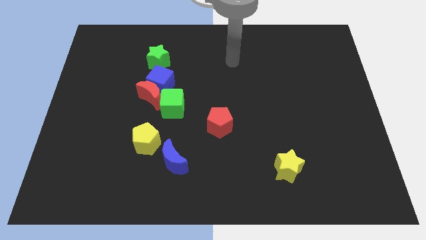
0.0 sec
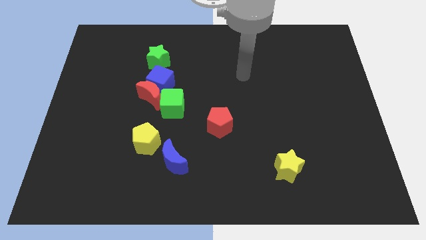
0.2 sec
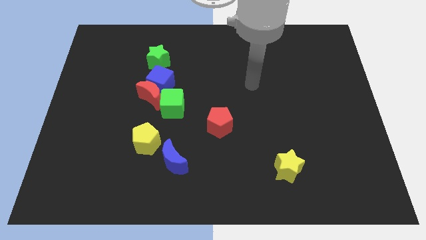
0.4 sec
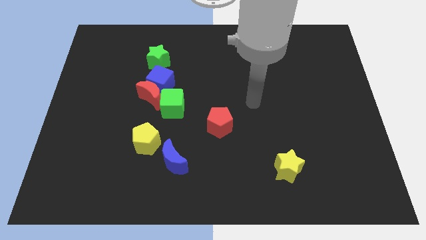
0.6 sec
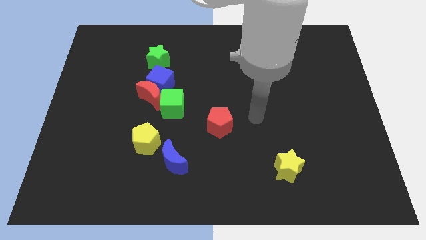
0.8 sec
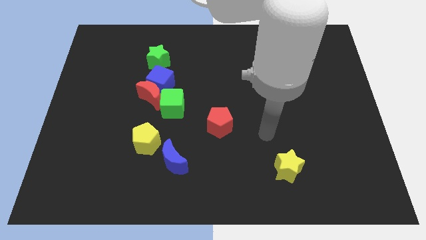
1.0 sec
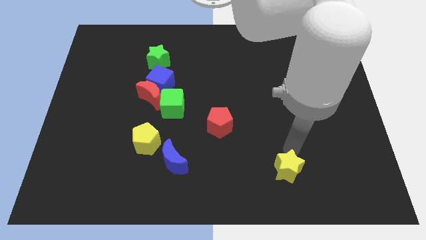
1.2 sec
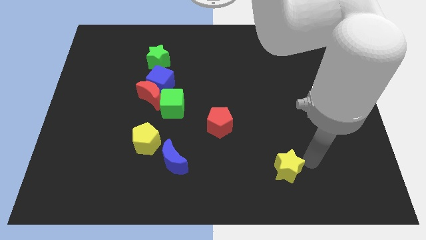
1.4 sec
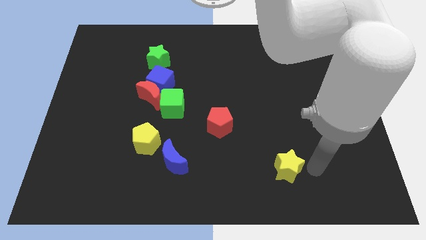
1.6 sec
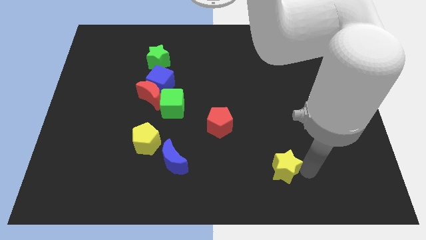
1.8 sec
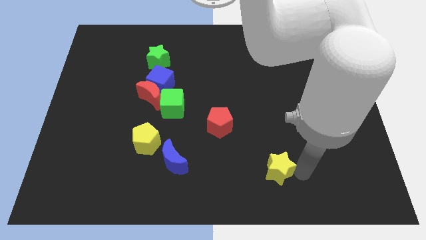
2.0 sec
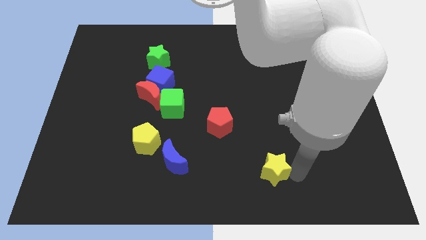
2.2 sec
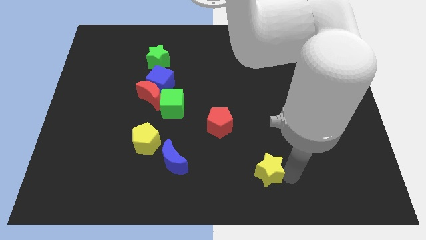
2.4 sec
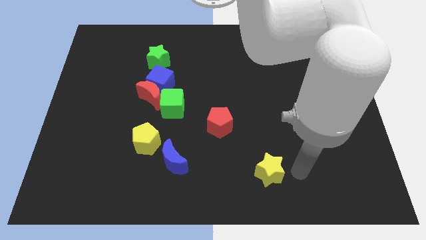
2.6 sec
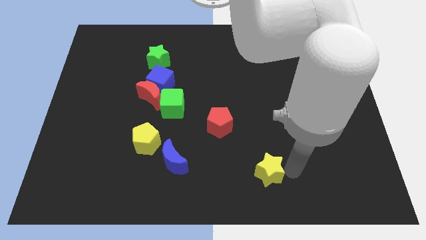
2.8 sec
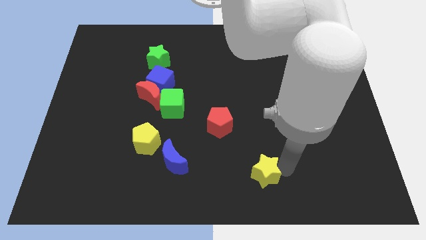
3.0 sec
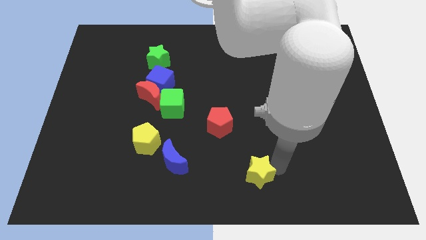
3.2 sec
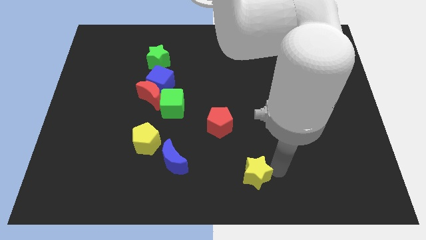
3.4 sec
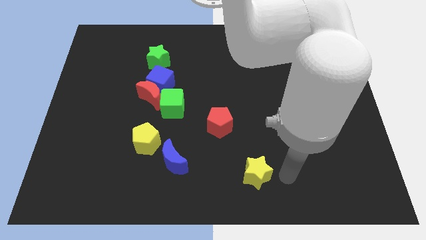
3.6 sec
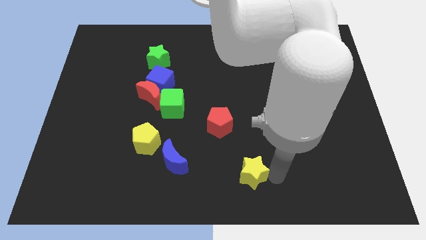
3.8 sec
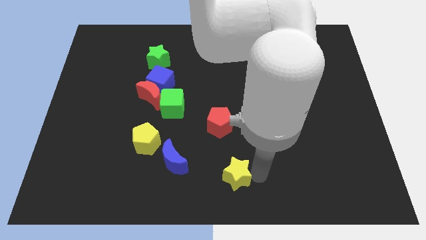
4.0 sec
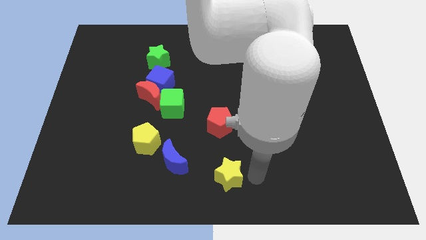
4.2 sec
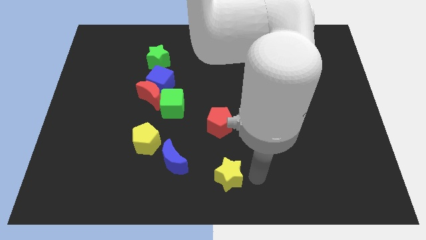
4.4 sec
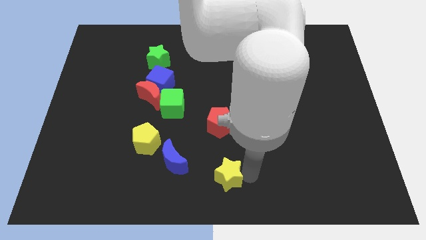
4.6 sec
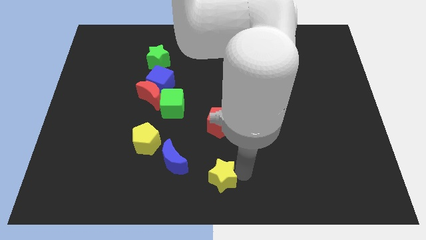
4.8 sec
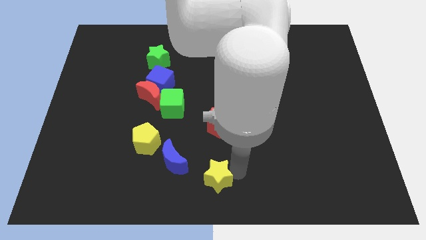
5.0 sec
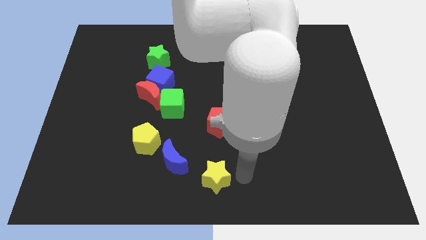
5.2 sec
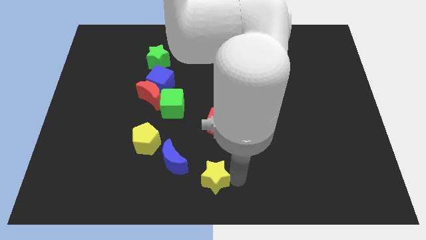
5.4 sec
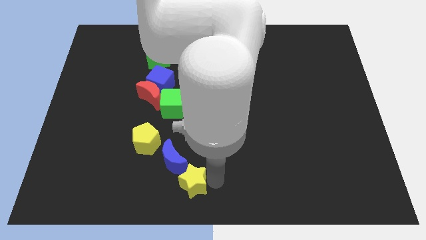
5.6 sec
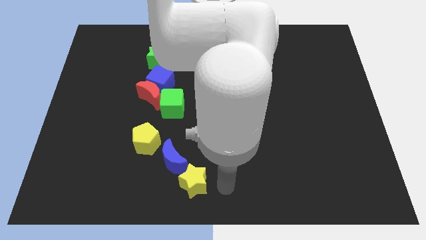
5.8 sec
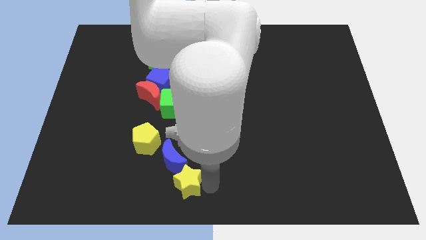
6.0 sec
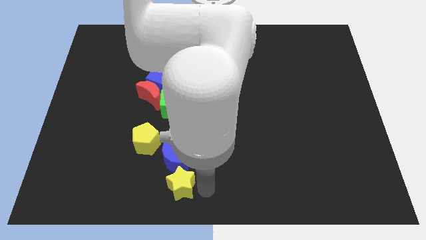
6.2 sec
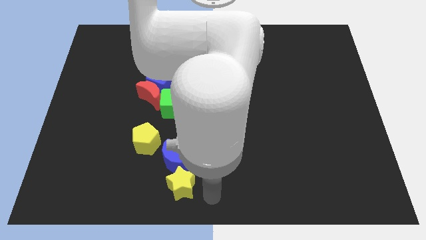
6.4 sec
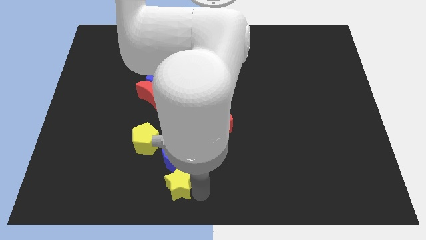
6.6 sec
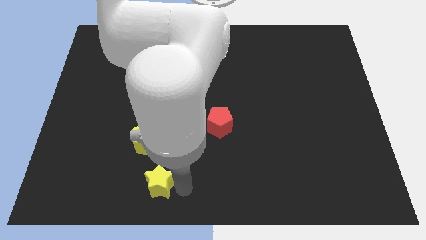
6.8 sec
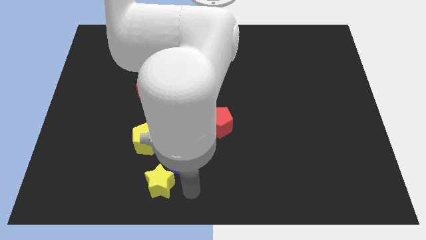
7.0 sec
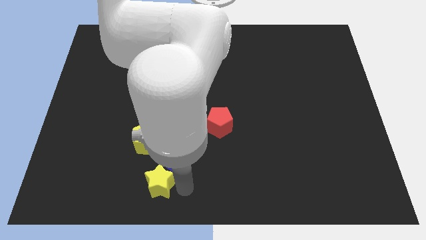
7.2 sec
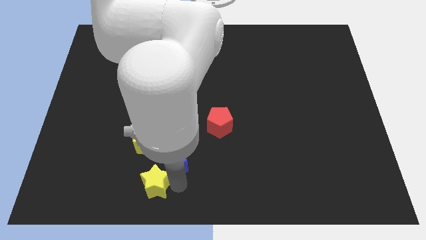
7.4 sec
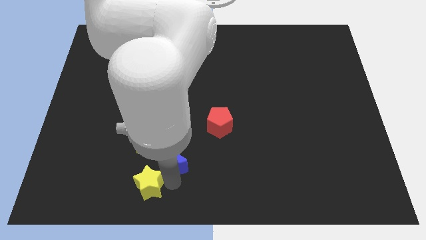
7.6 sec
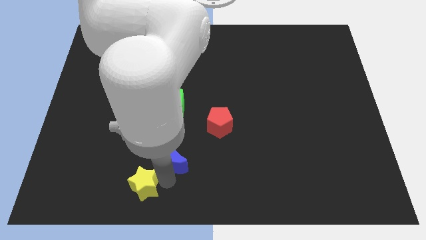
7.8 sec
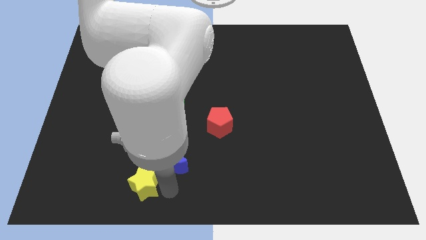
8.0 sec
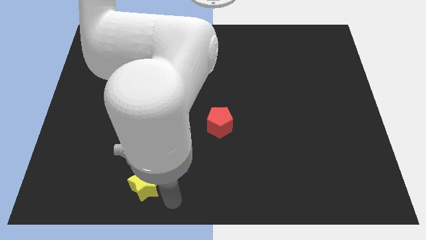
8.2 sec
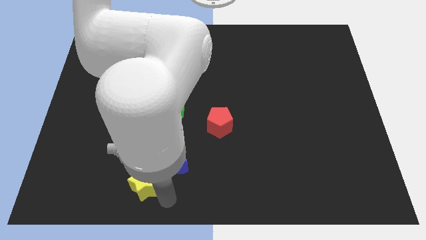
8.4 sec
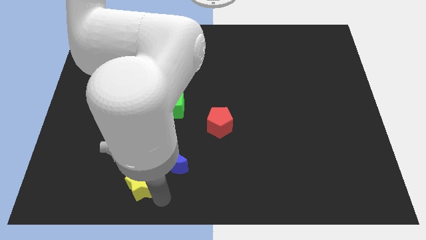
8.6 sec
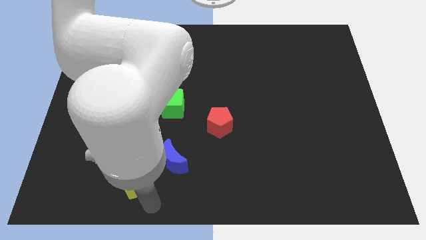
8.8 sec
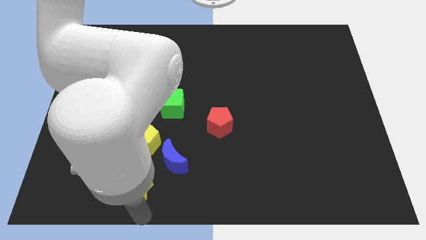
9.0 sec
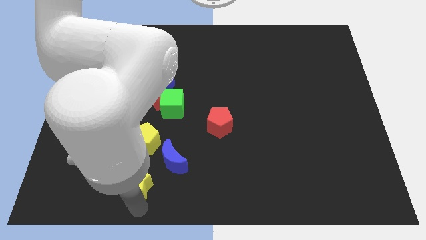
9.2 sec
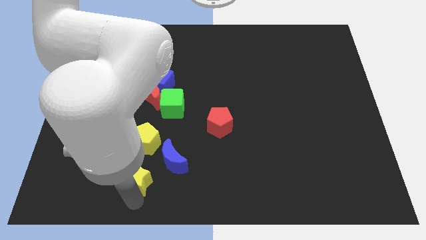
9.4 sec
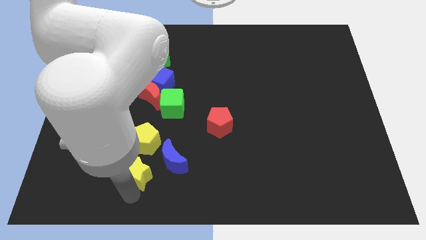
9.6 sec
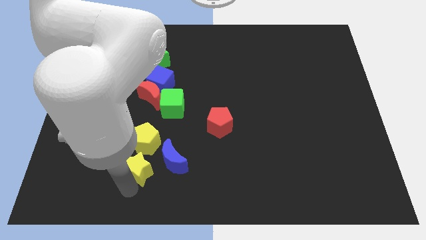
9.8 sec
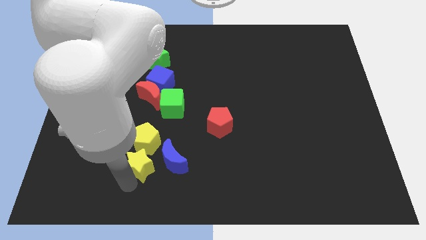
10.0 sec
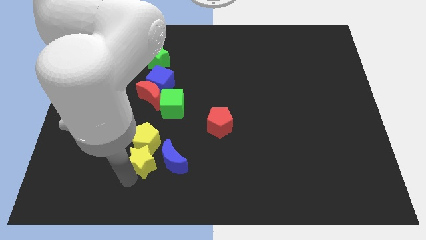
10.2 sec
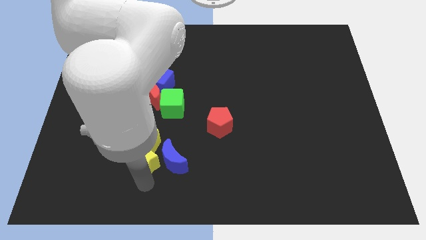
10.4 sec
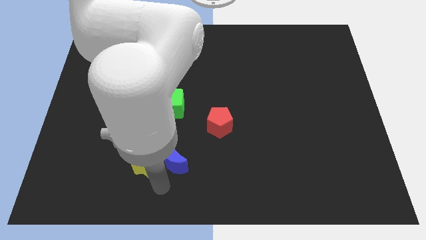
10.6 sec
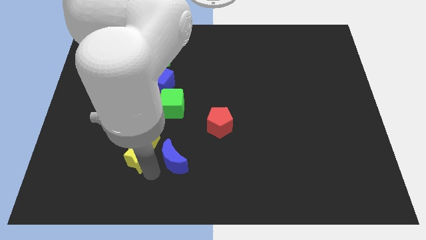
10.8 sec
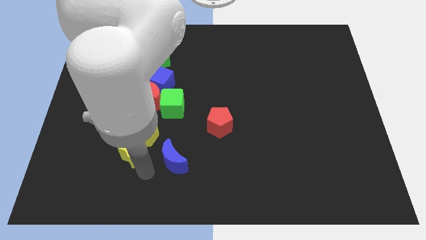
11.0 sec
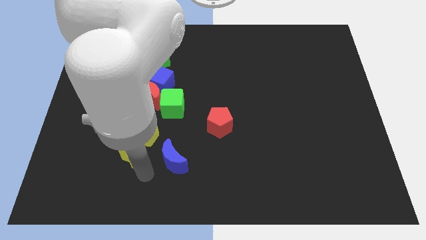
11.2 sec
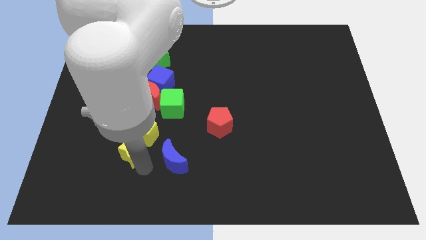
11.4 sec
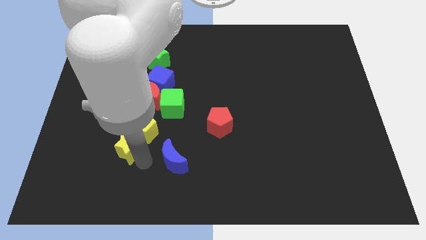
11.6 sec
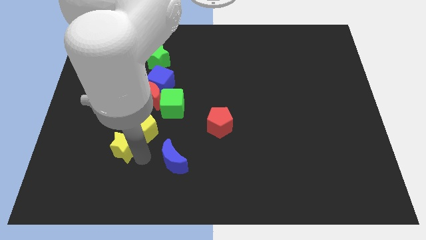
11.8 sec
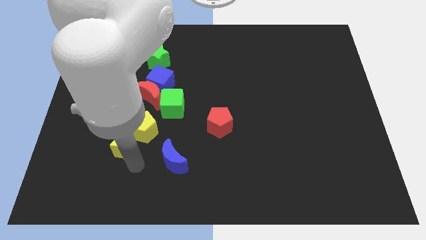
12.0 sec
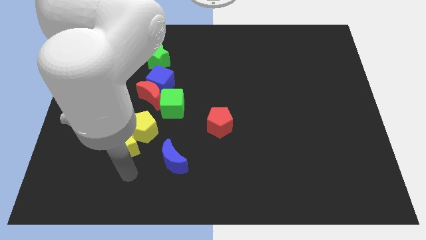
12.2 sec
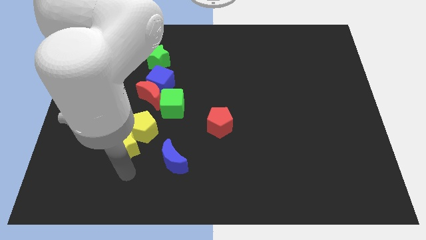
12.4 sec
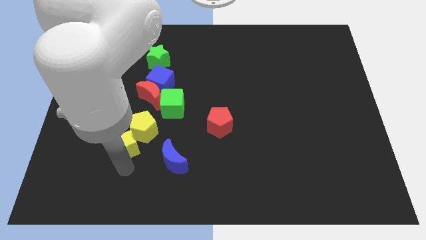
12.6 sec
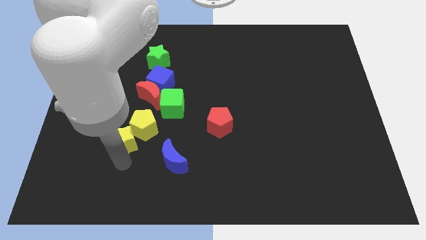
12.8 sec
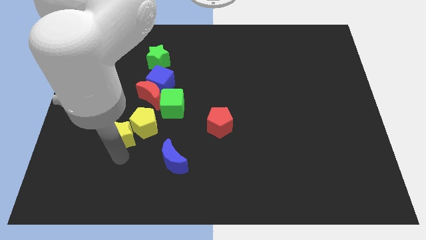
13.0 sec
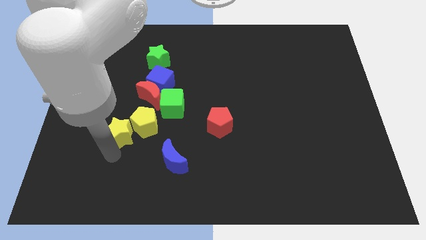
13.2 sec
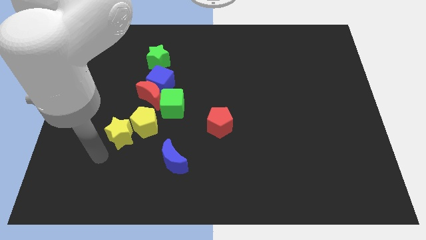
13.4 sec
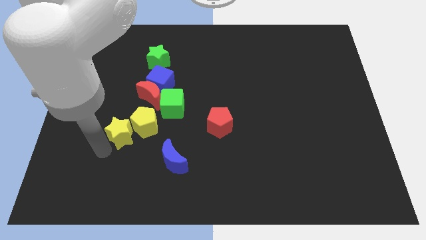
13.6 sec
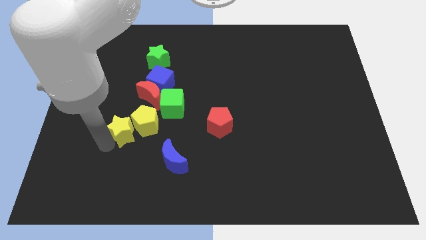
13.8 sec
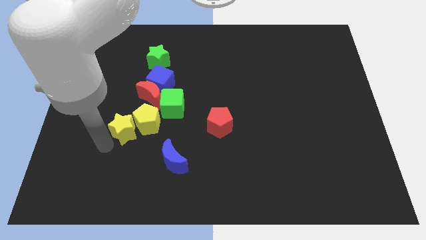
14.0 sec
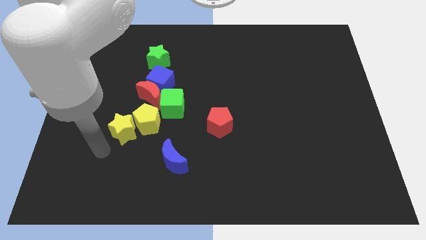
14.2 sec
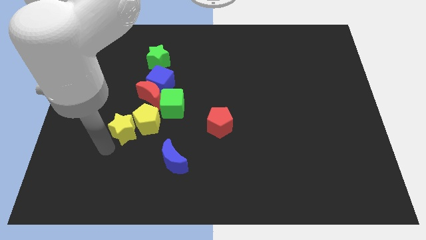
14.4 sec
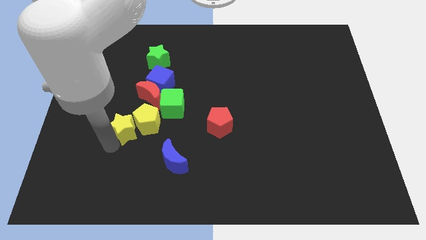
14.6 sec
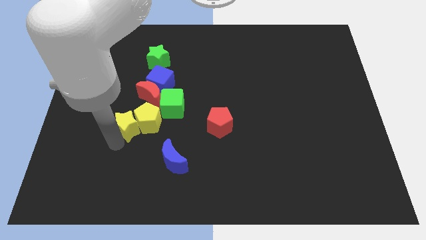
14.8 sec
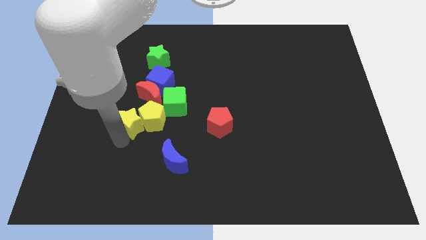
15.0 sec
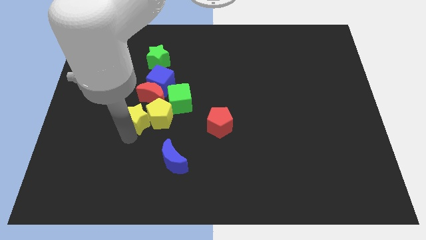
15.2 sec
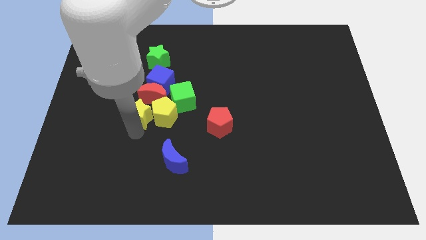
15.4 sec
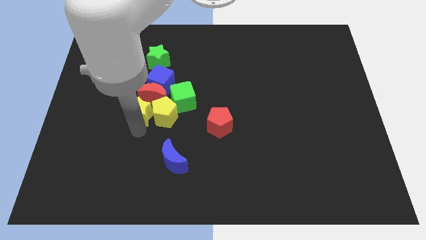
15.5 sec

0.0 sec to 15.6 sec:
push the yellow star close to the red moon
